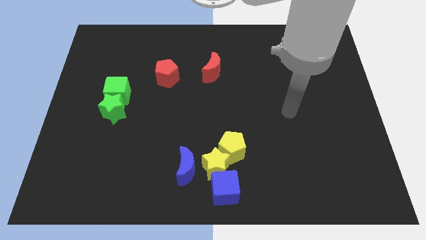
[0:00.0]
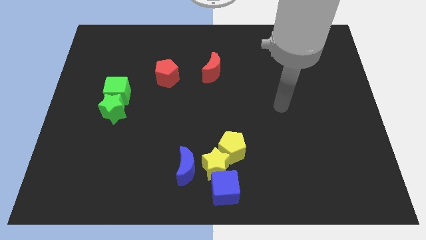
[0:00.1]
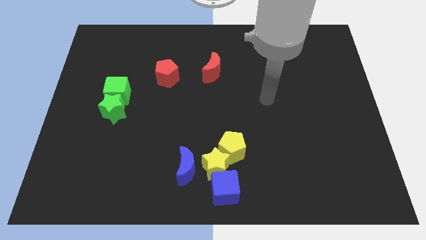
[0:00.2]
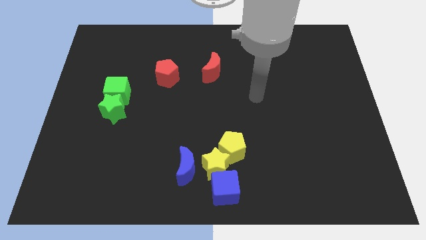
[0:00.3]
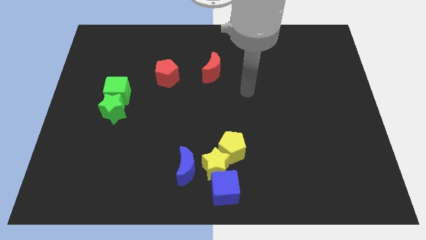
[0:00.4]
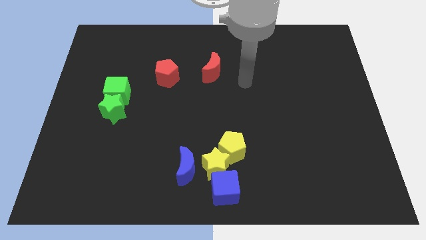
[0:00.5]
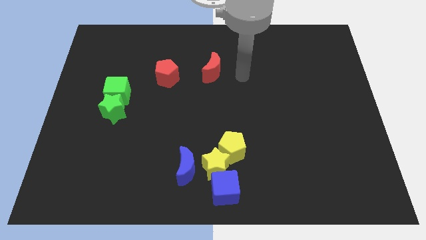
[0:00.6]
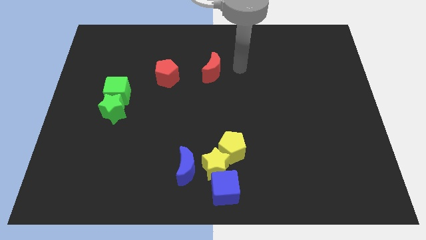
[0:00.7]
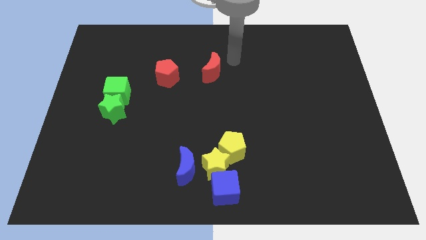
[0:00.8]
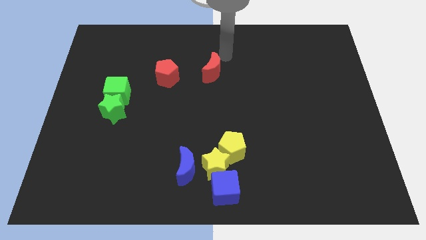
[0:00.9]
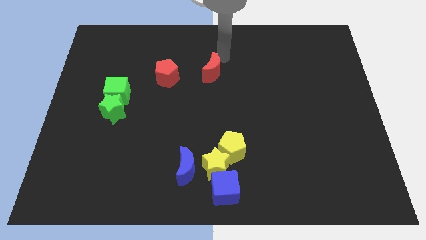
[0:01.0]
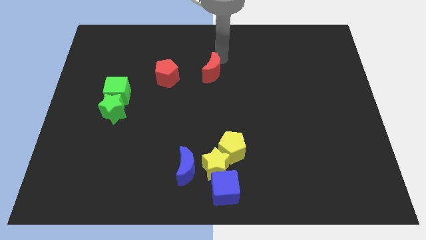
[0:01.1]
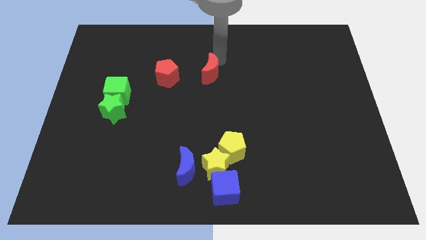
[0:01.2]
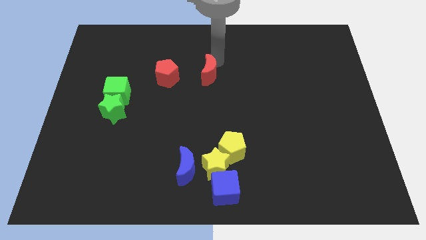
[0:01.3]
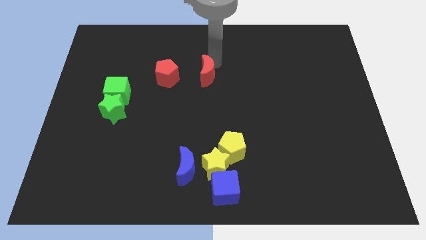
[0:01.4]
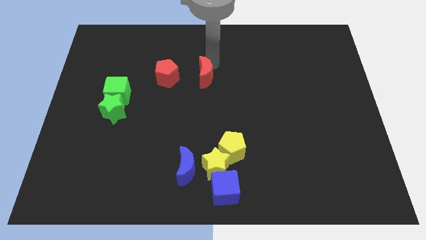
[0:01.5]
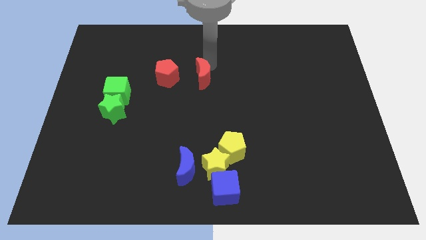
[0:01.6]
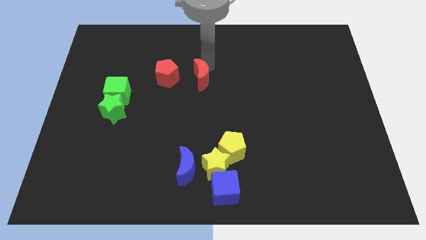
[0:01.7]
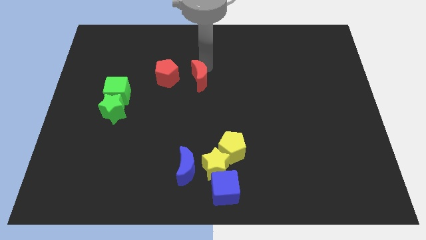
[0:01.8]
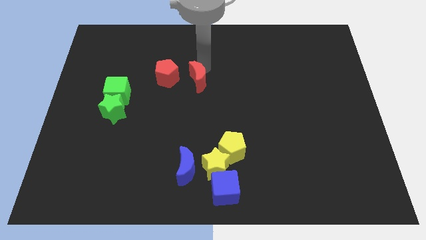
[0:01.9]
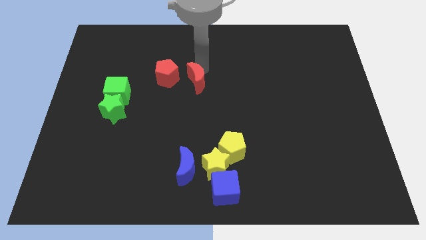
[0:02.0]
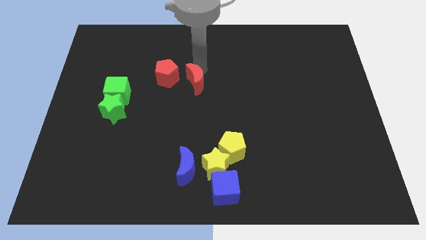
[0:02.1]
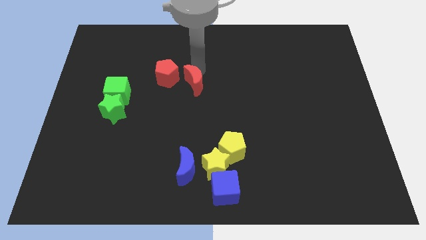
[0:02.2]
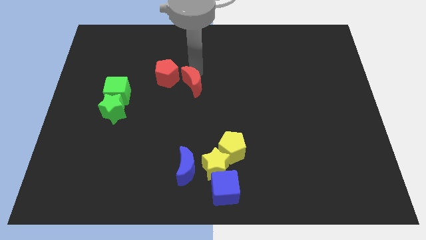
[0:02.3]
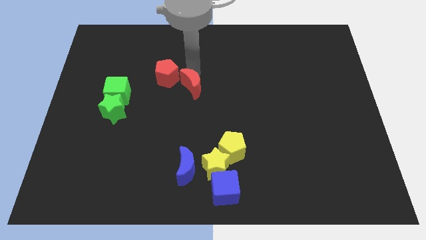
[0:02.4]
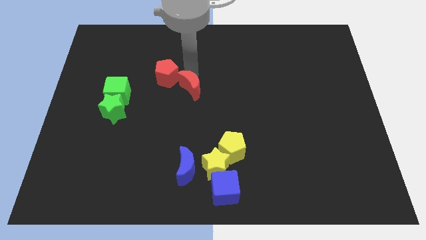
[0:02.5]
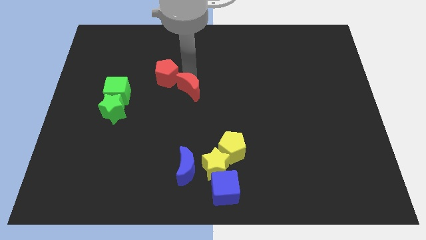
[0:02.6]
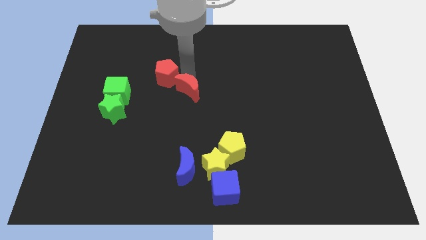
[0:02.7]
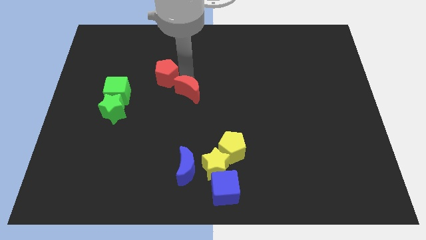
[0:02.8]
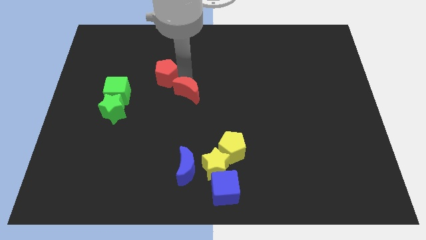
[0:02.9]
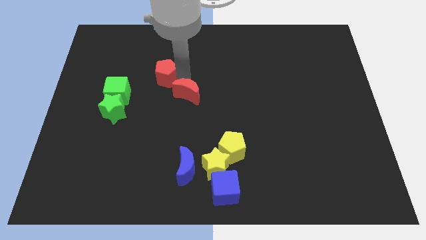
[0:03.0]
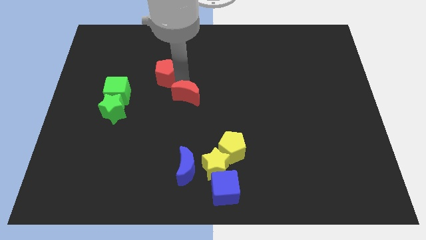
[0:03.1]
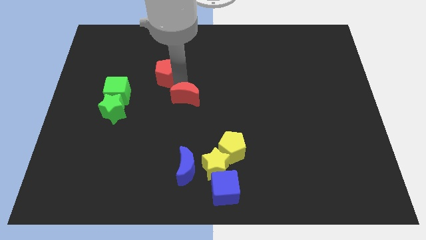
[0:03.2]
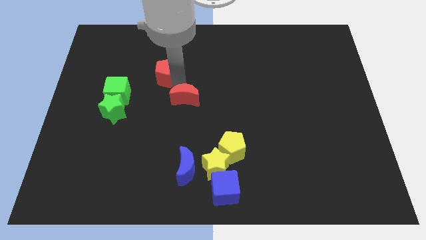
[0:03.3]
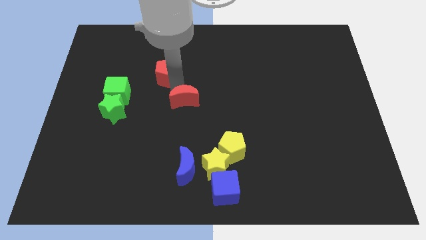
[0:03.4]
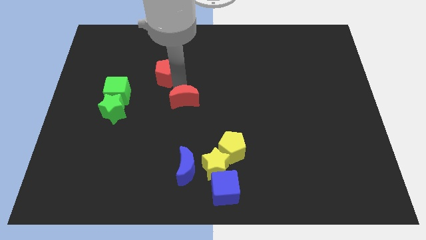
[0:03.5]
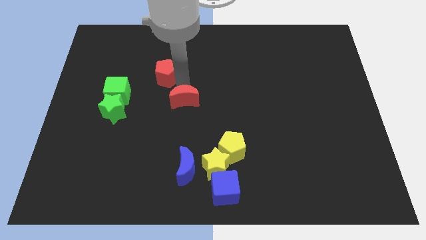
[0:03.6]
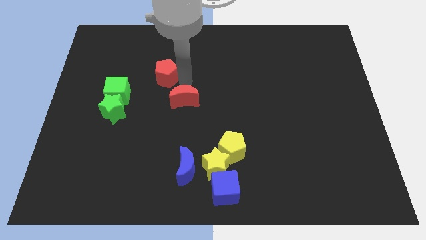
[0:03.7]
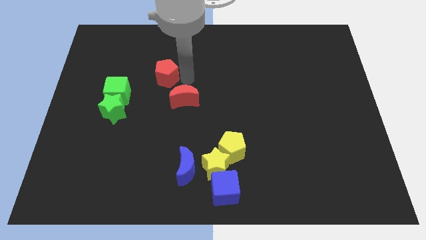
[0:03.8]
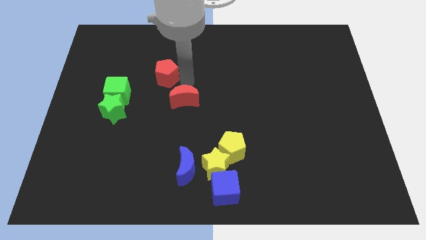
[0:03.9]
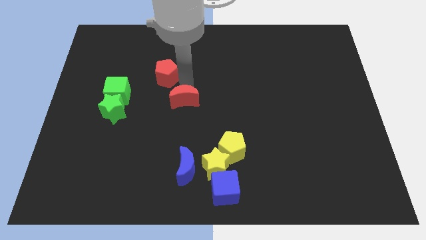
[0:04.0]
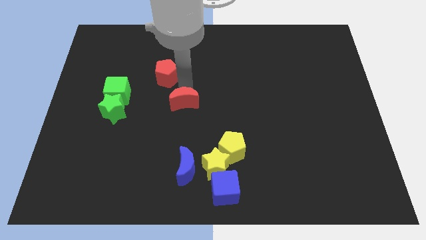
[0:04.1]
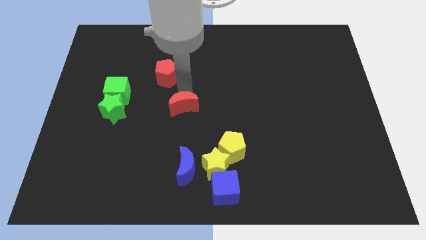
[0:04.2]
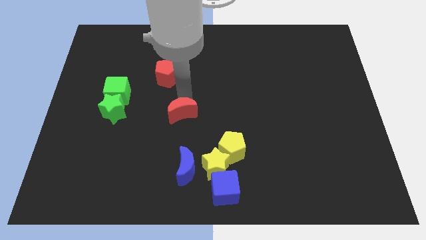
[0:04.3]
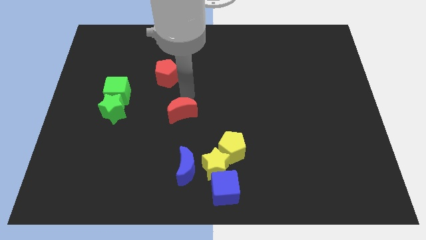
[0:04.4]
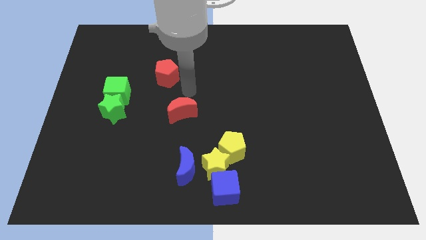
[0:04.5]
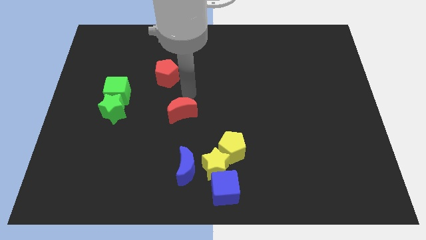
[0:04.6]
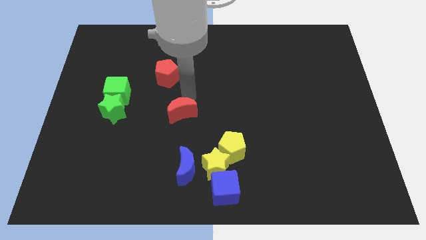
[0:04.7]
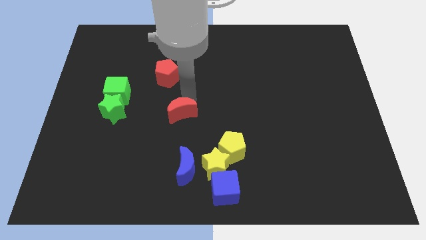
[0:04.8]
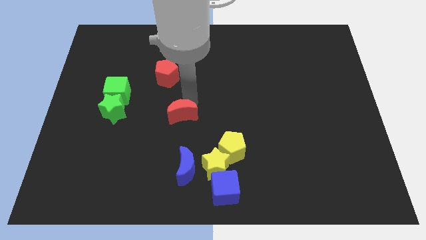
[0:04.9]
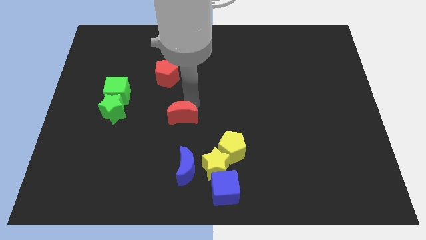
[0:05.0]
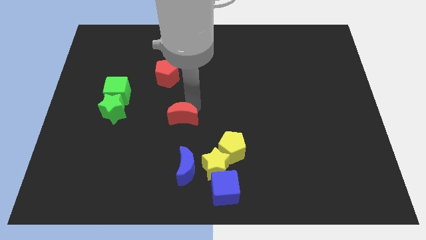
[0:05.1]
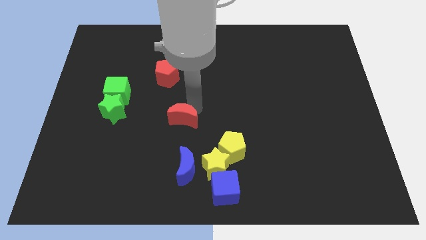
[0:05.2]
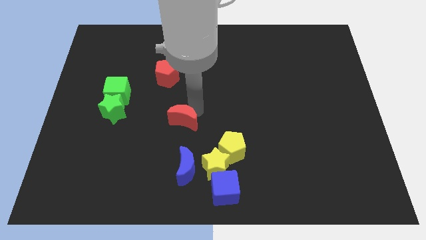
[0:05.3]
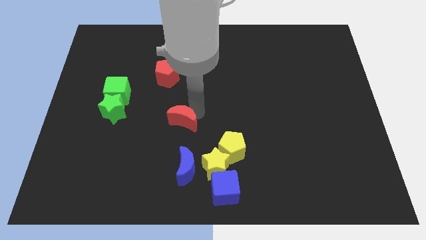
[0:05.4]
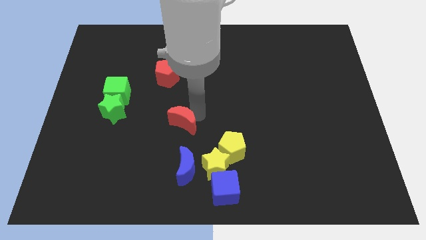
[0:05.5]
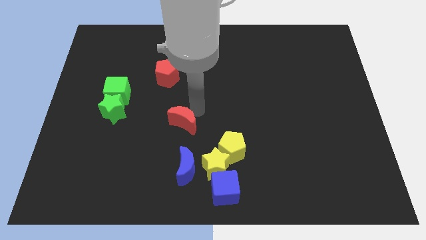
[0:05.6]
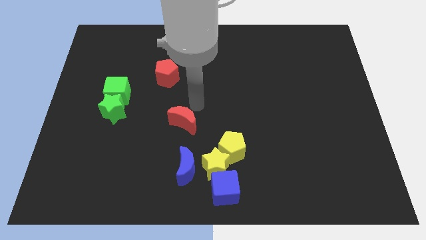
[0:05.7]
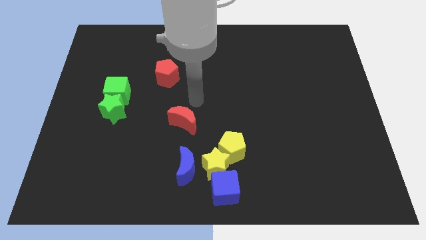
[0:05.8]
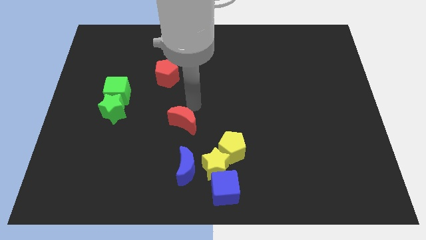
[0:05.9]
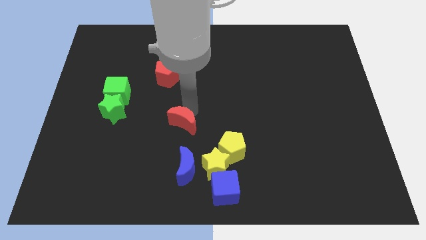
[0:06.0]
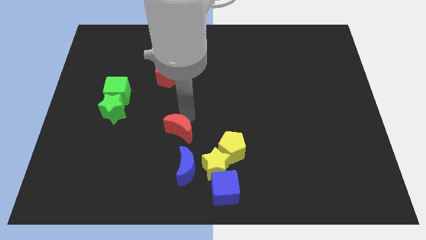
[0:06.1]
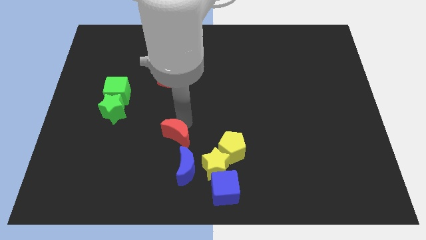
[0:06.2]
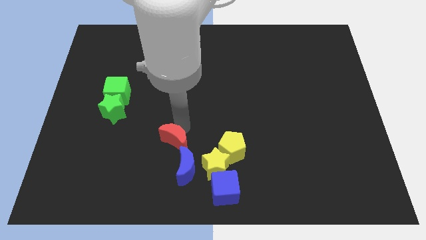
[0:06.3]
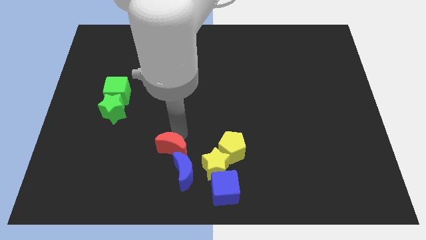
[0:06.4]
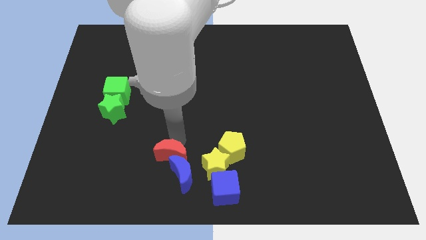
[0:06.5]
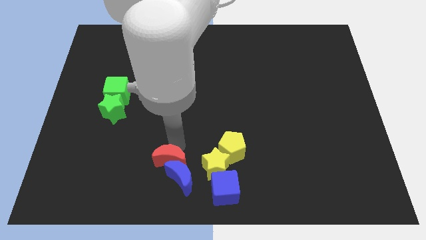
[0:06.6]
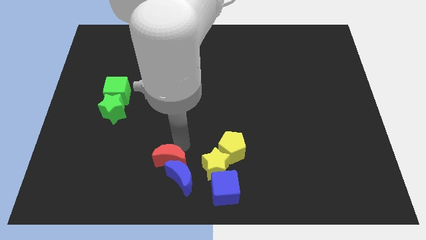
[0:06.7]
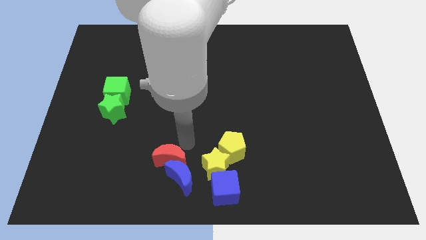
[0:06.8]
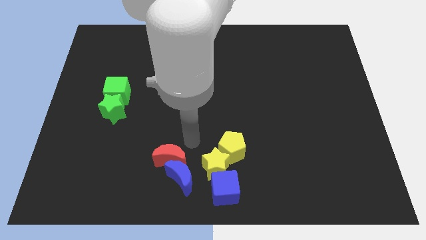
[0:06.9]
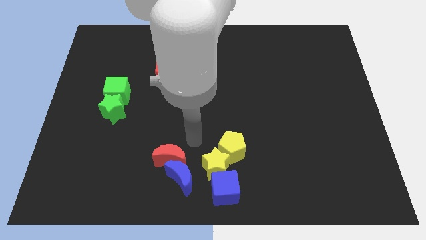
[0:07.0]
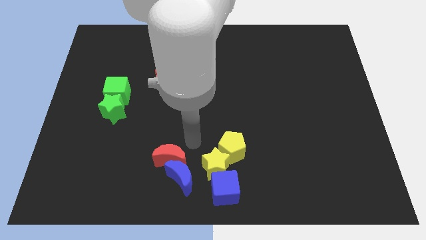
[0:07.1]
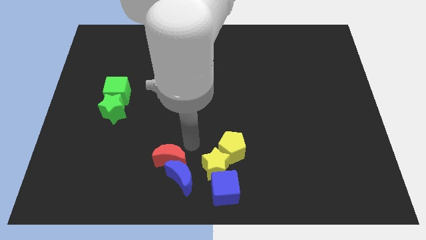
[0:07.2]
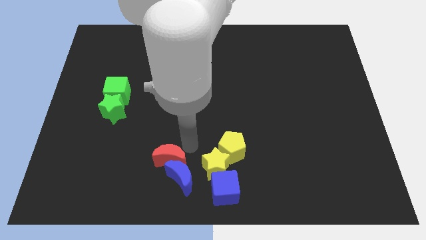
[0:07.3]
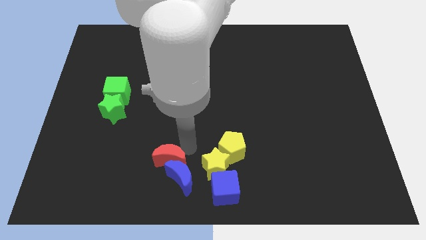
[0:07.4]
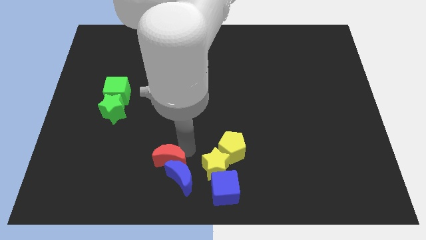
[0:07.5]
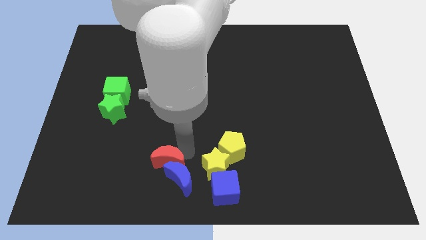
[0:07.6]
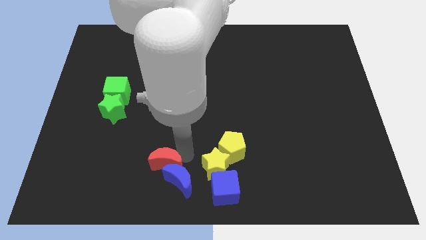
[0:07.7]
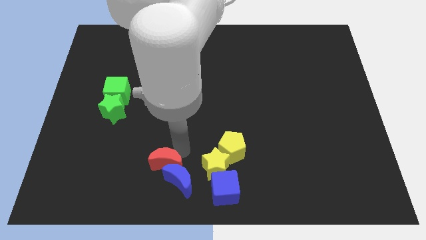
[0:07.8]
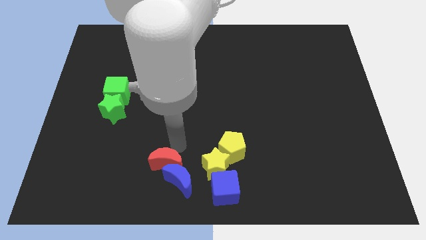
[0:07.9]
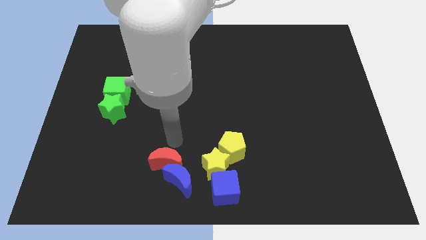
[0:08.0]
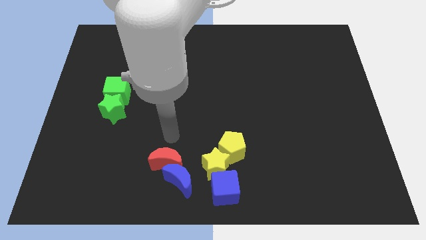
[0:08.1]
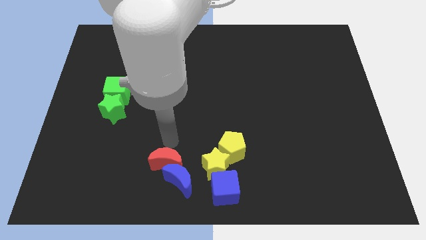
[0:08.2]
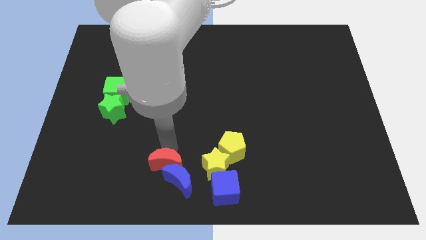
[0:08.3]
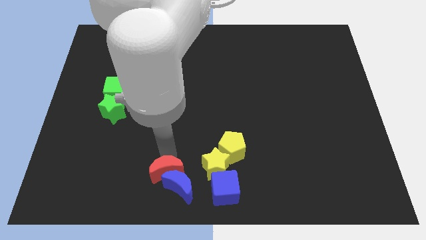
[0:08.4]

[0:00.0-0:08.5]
move the red moon to the bottom side
